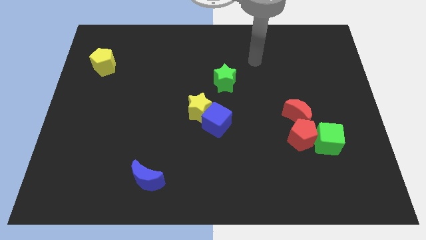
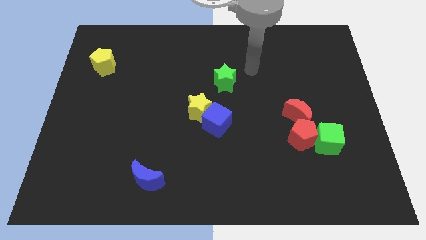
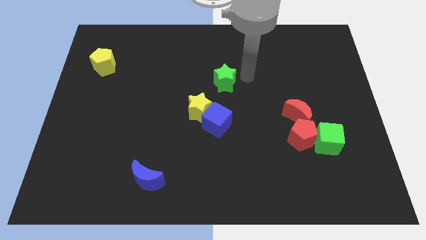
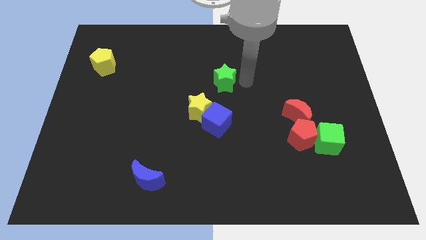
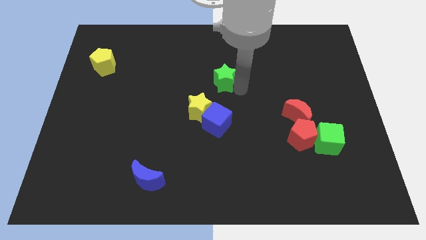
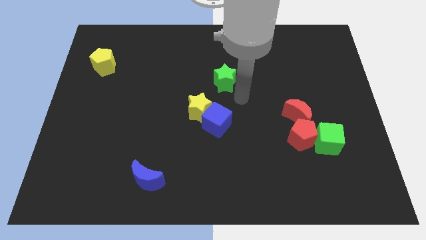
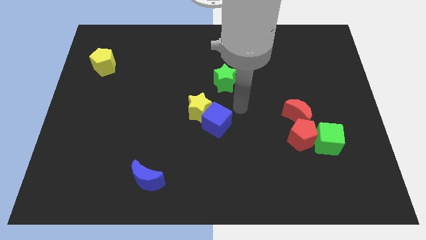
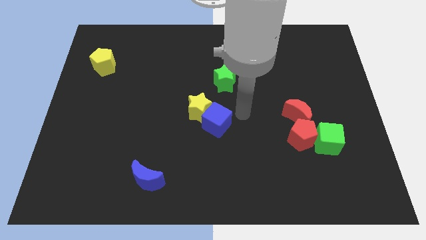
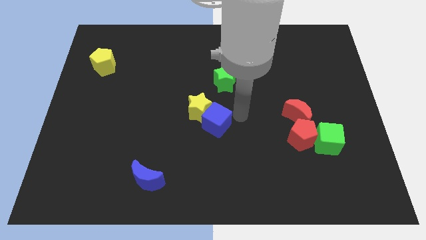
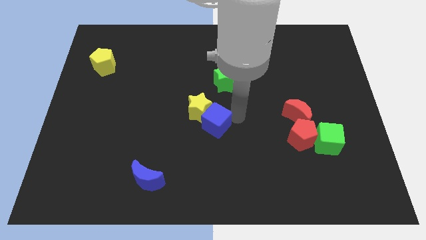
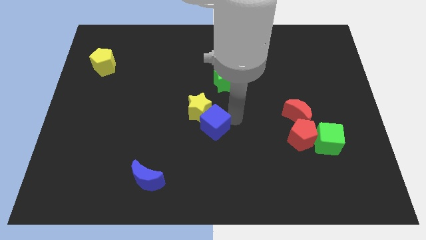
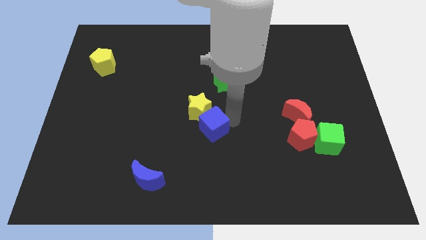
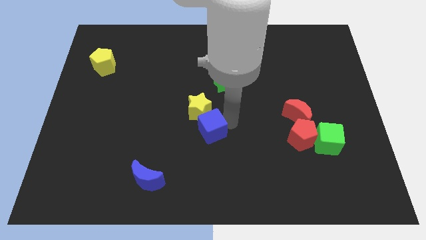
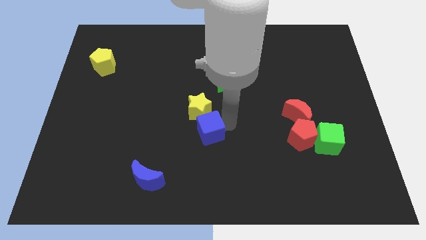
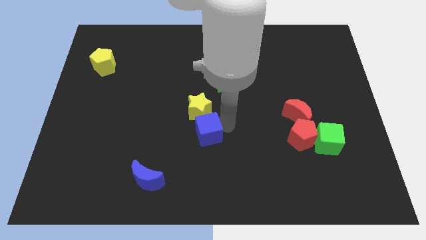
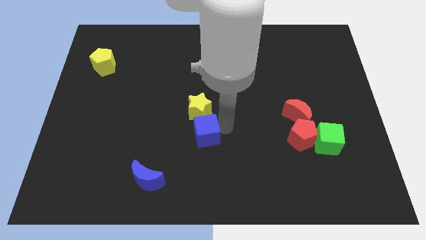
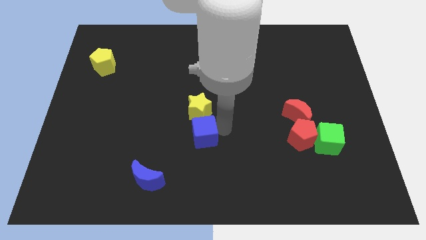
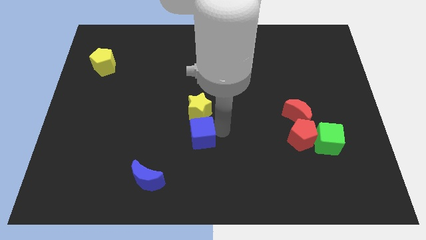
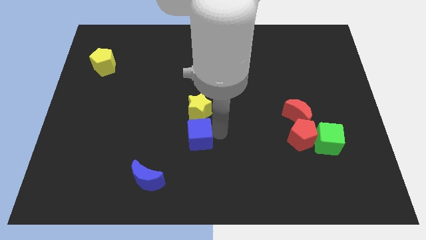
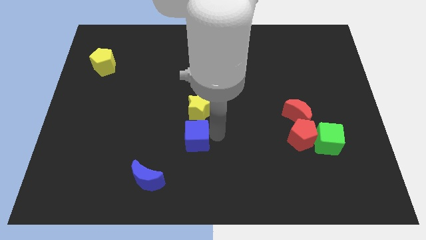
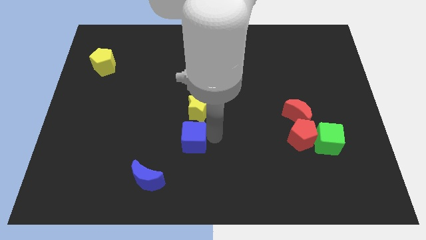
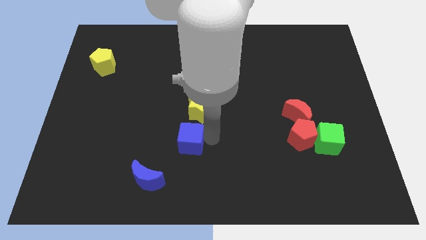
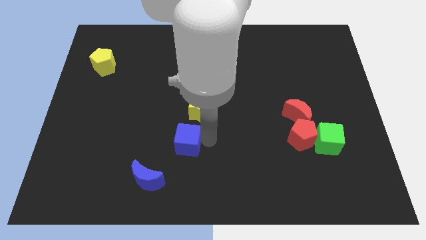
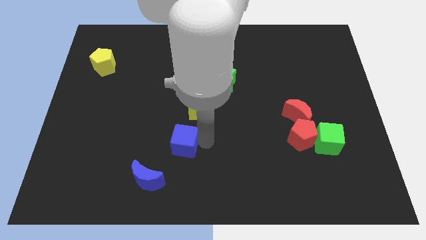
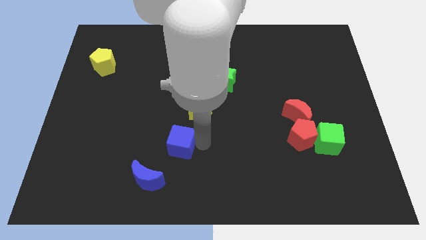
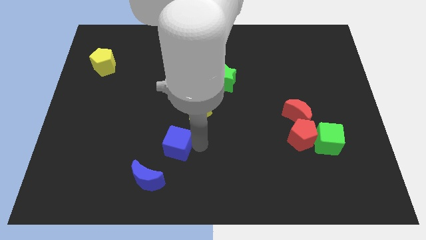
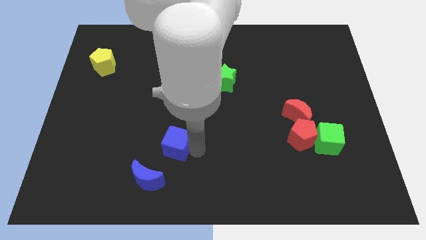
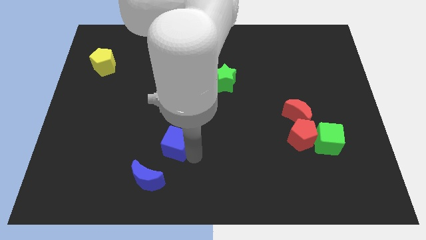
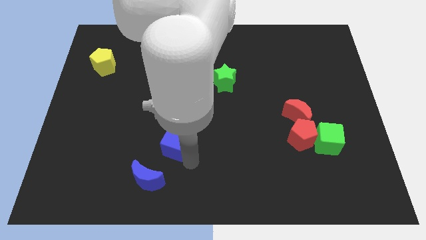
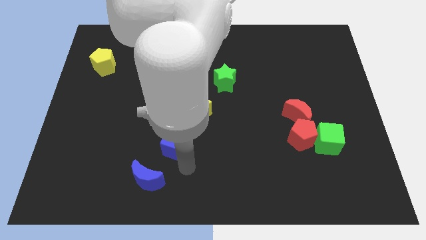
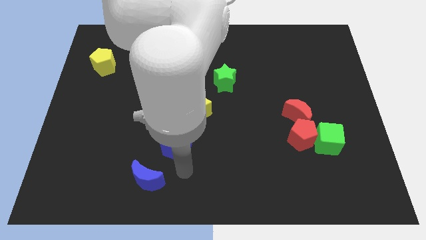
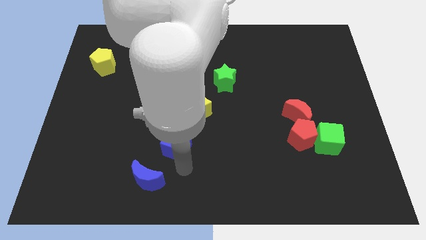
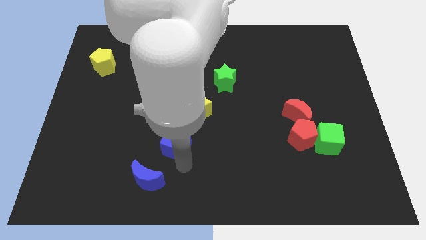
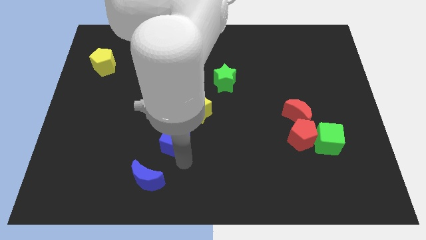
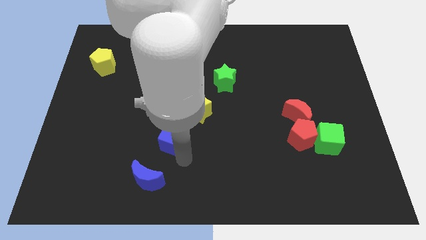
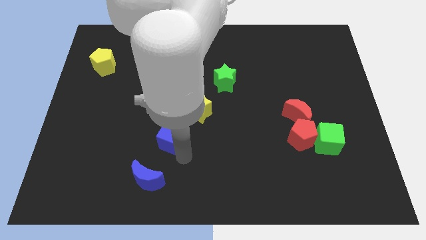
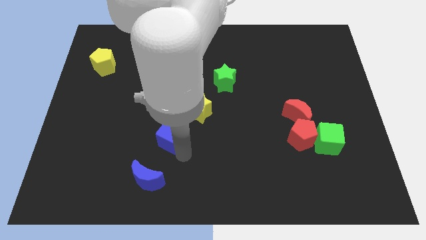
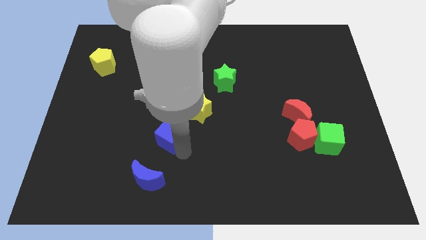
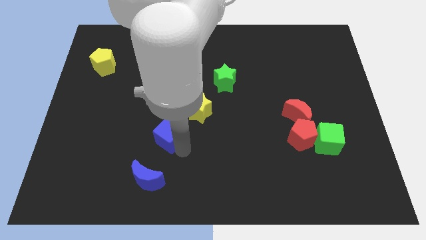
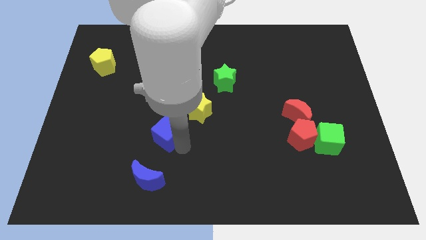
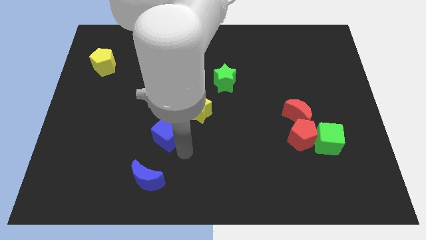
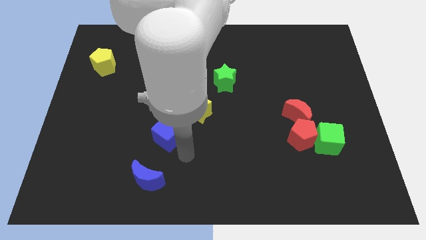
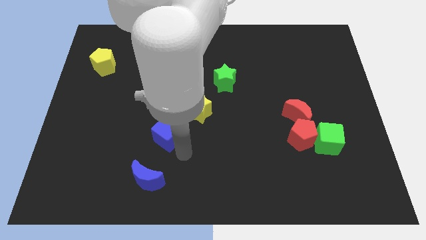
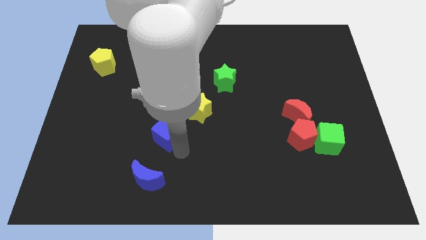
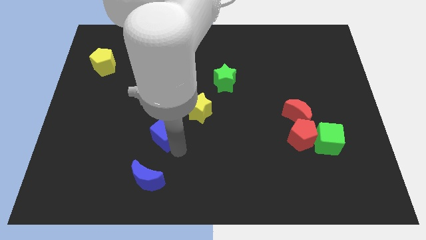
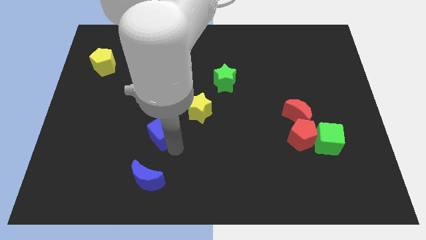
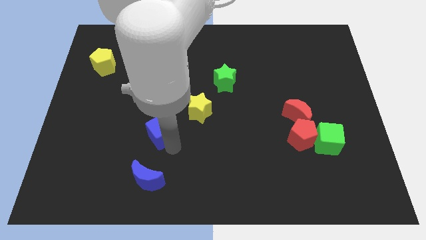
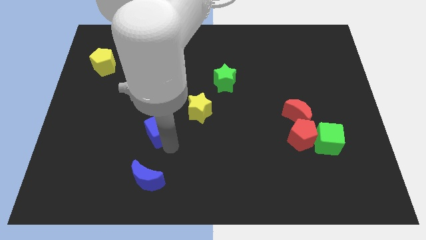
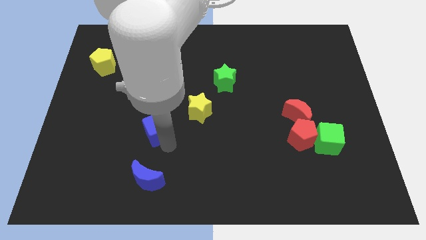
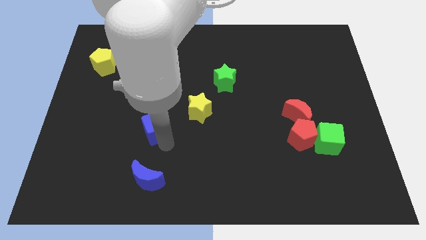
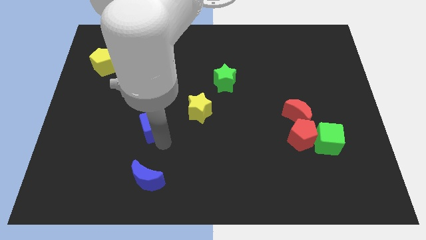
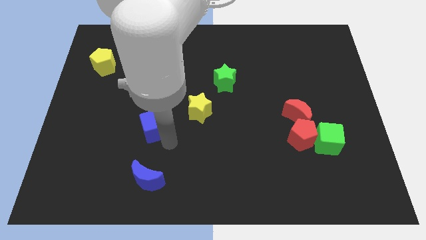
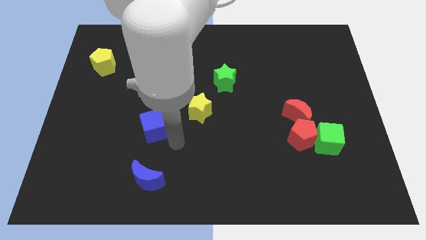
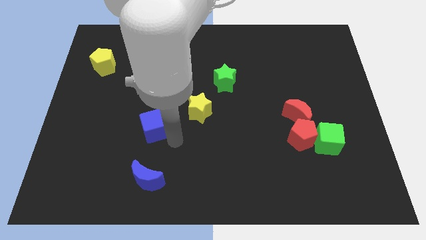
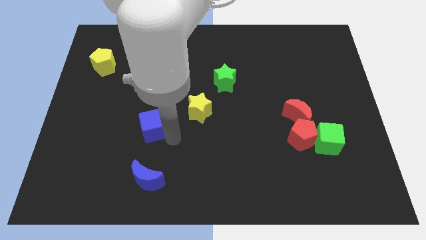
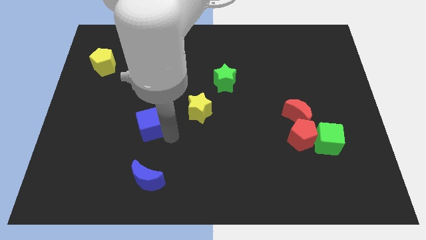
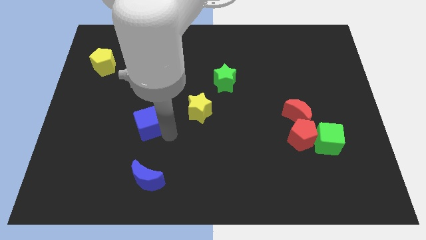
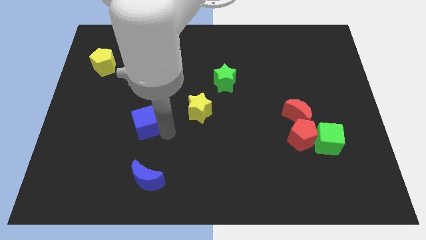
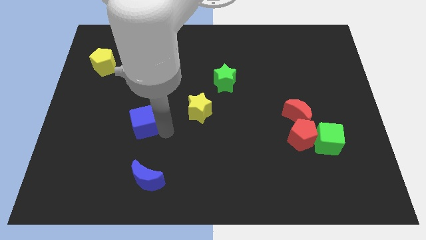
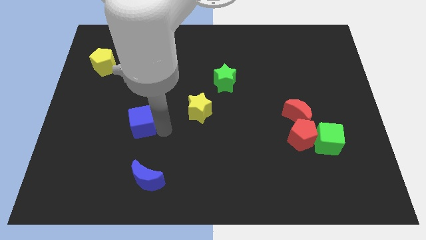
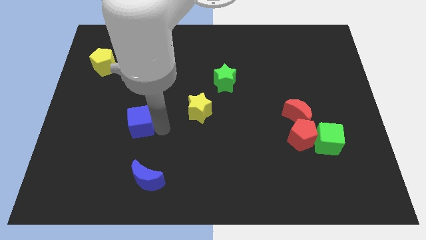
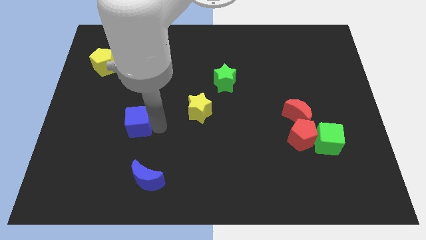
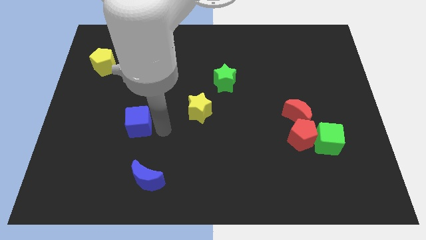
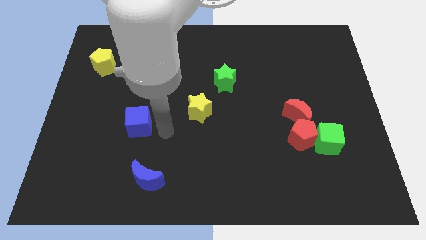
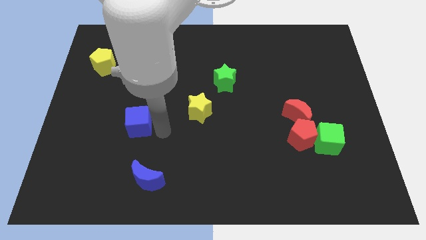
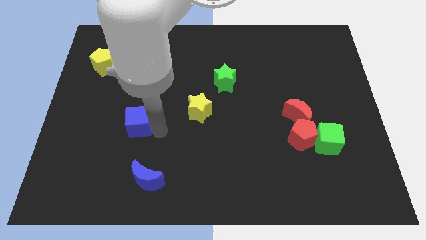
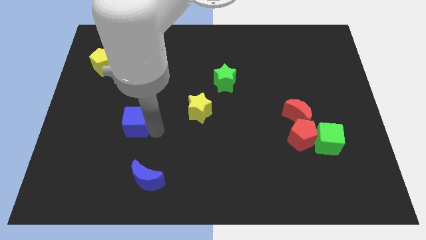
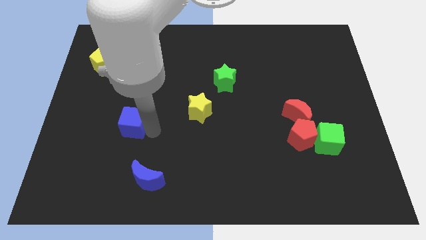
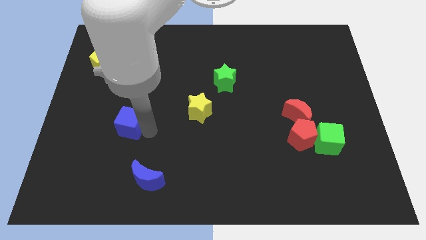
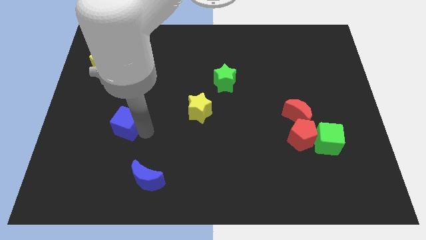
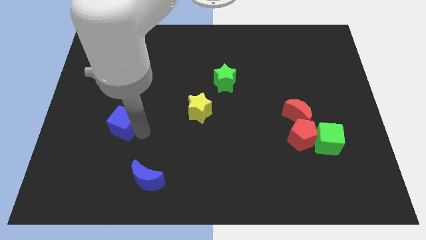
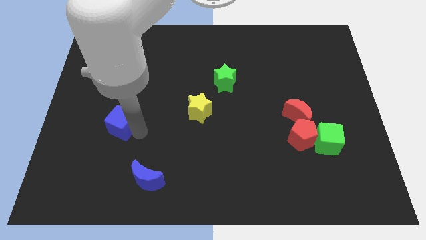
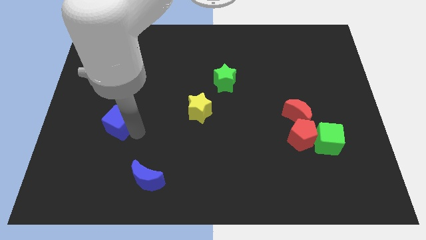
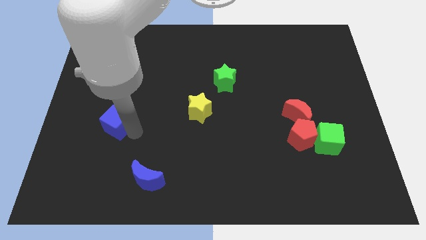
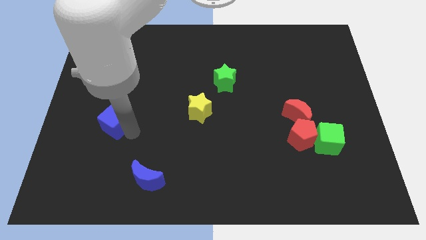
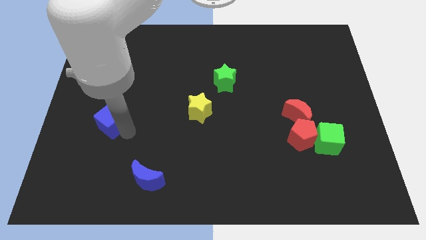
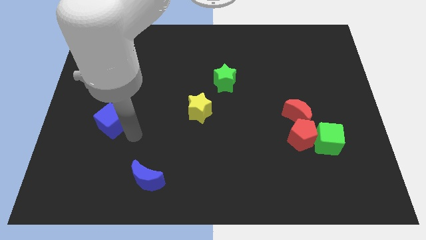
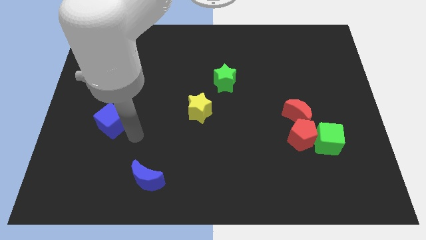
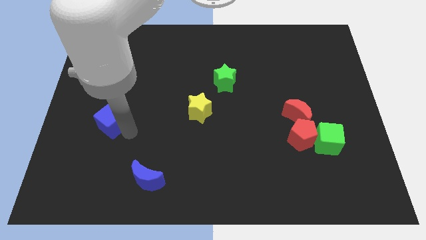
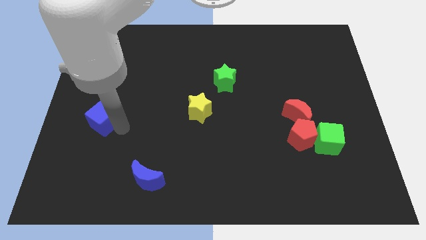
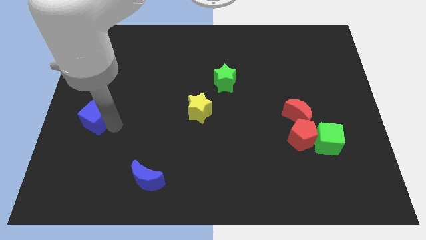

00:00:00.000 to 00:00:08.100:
push the blue cube to the center left

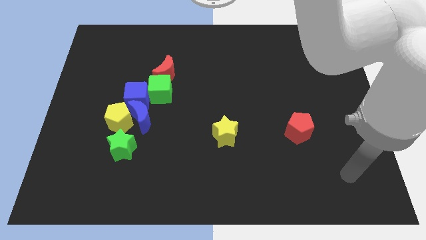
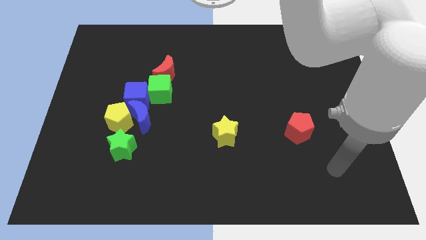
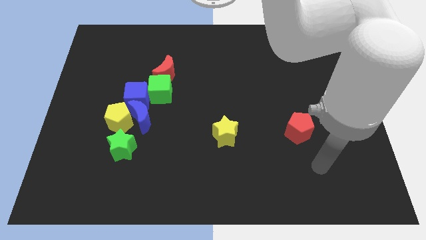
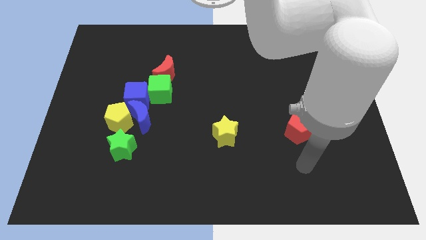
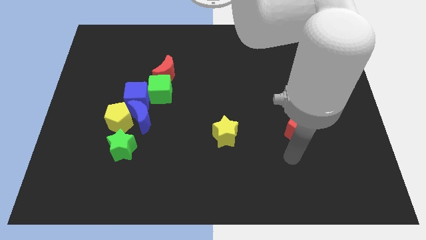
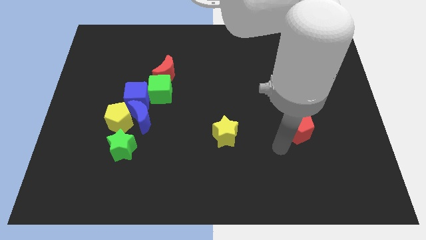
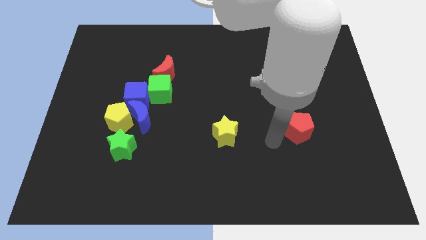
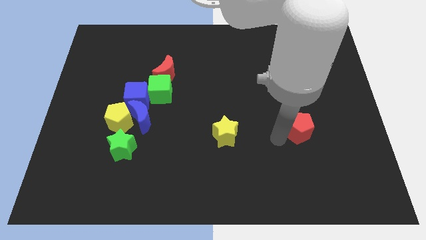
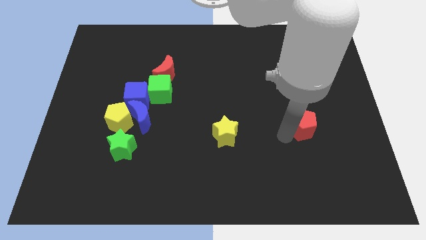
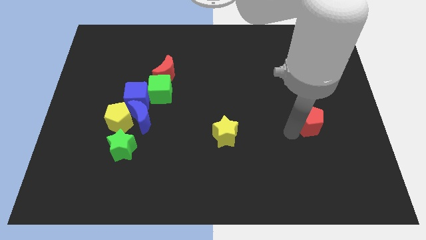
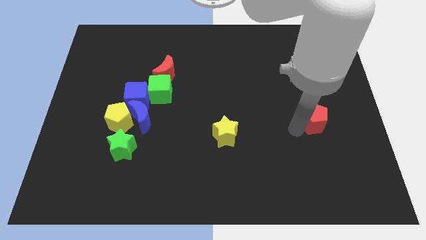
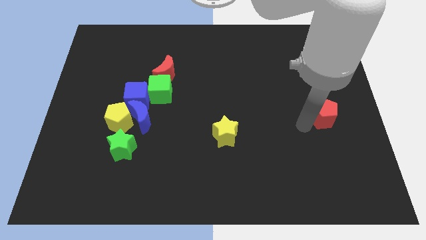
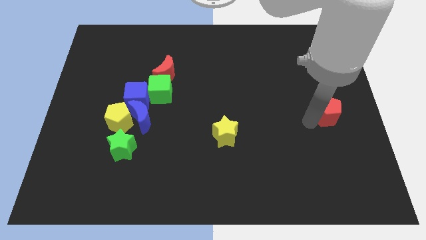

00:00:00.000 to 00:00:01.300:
move the red pentagon to the right side
